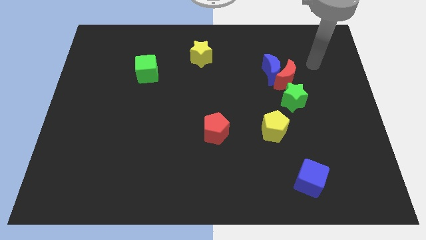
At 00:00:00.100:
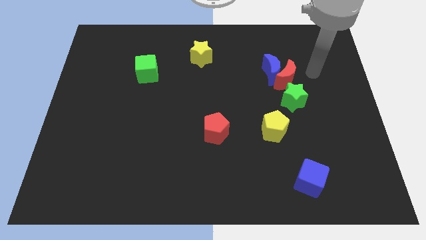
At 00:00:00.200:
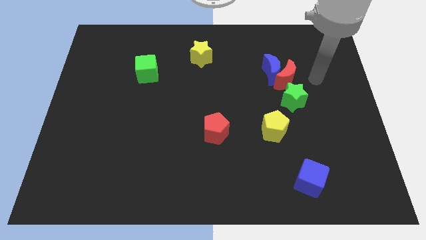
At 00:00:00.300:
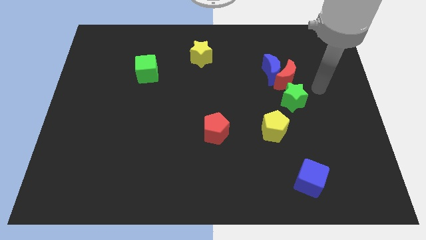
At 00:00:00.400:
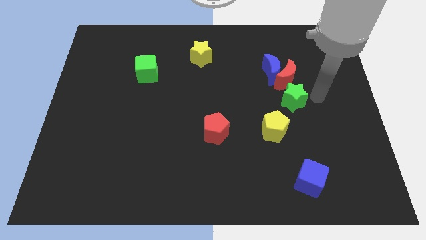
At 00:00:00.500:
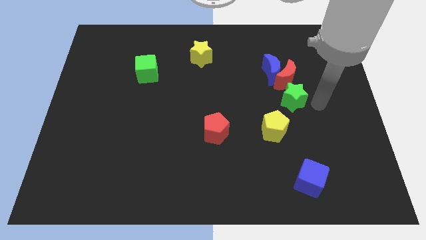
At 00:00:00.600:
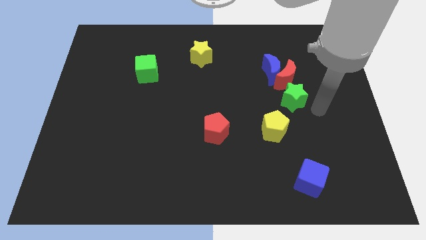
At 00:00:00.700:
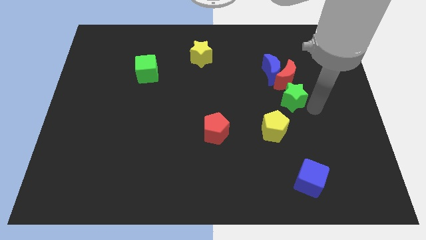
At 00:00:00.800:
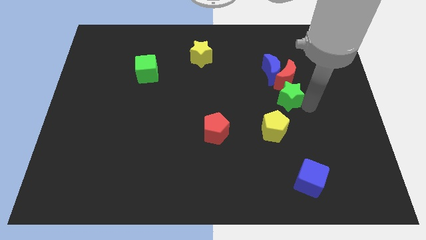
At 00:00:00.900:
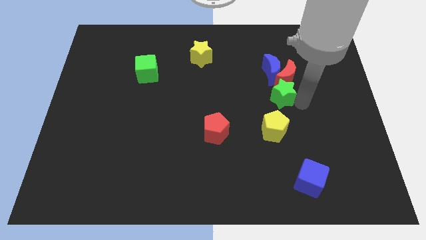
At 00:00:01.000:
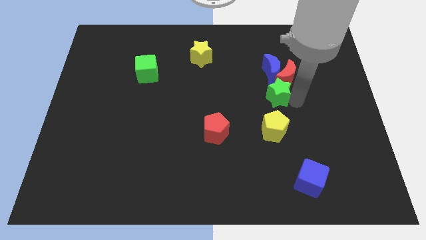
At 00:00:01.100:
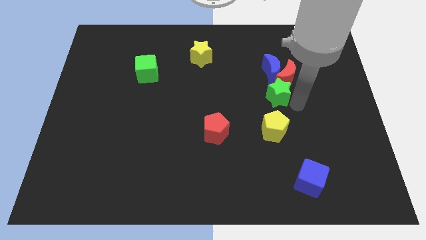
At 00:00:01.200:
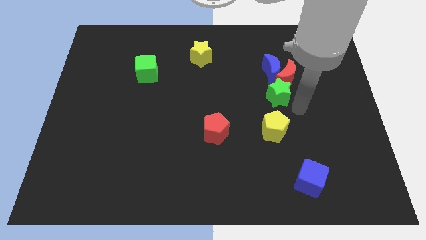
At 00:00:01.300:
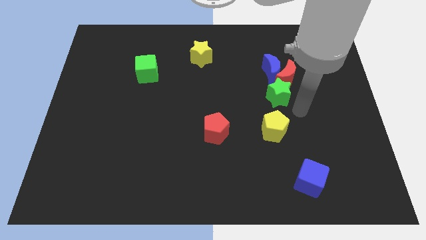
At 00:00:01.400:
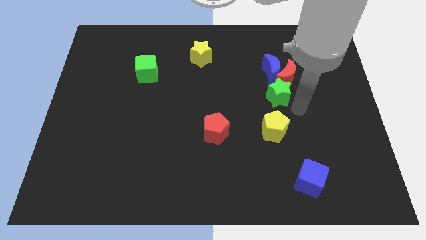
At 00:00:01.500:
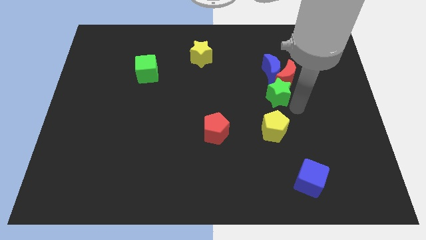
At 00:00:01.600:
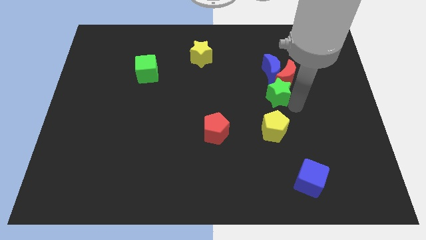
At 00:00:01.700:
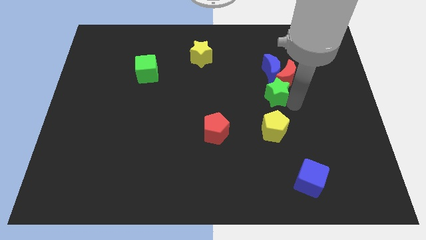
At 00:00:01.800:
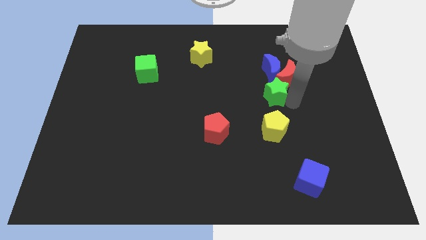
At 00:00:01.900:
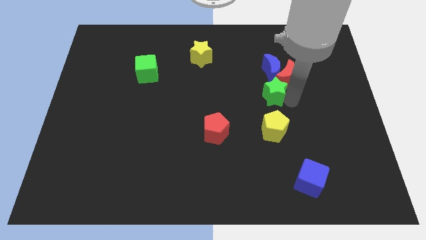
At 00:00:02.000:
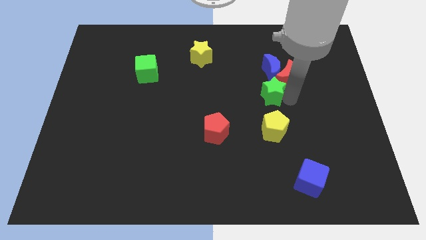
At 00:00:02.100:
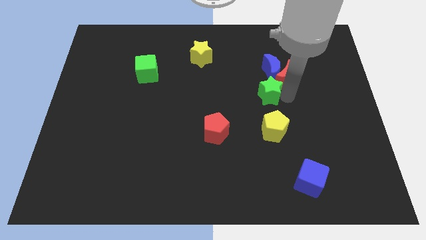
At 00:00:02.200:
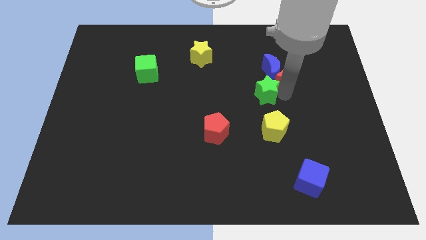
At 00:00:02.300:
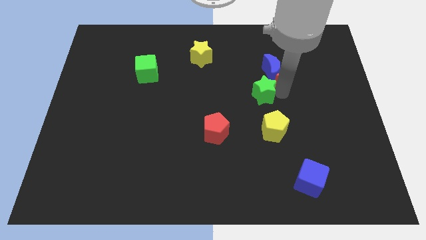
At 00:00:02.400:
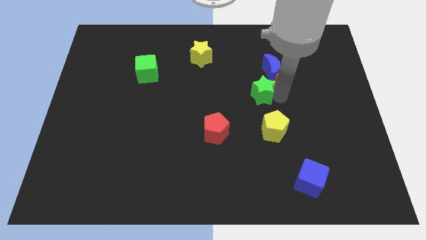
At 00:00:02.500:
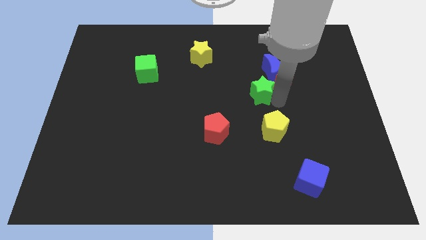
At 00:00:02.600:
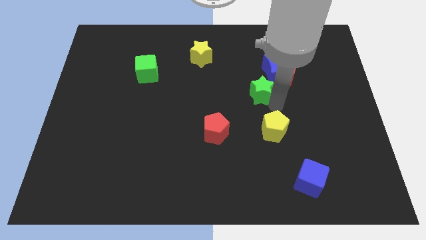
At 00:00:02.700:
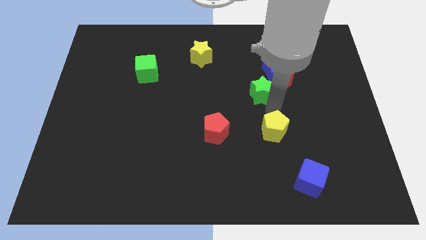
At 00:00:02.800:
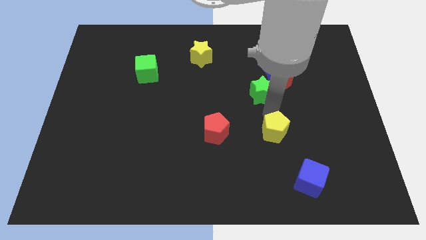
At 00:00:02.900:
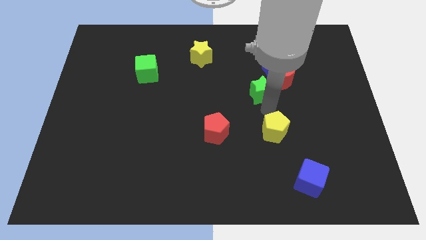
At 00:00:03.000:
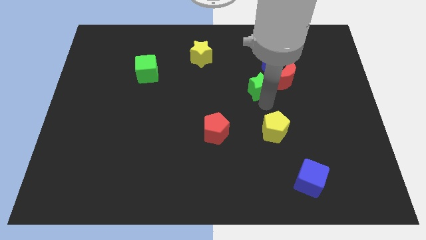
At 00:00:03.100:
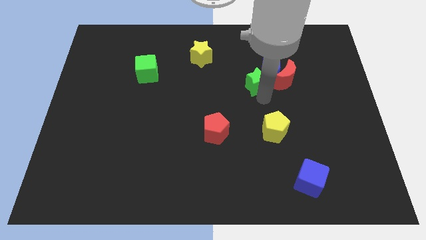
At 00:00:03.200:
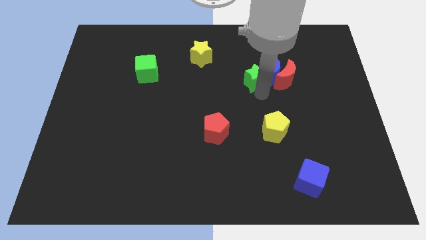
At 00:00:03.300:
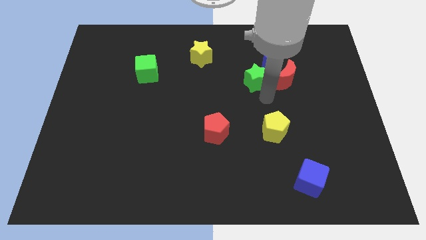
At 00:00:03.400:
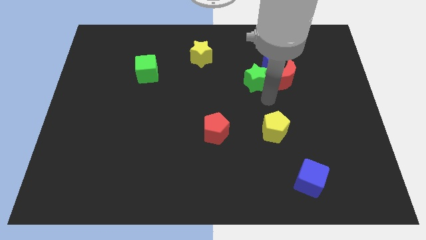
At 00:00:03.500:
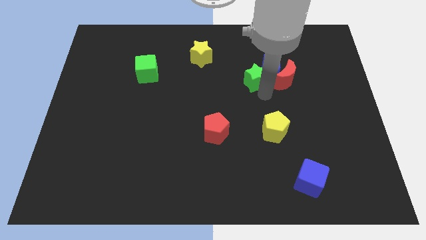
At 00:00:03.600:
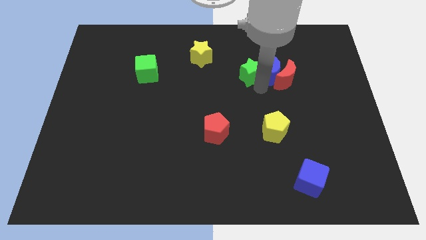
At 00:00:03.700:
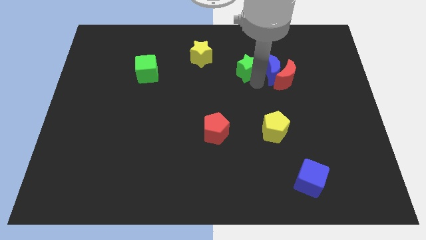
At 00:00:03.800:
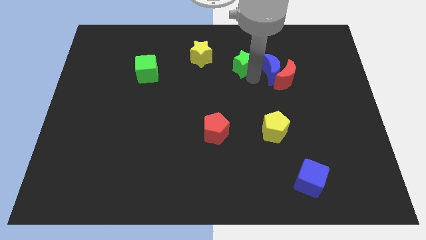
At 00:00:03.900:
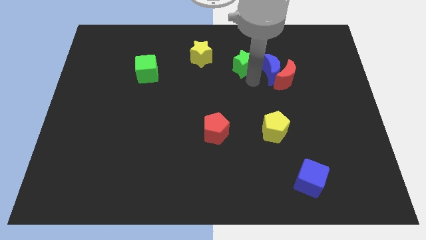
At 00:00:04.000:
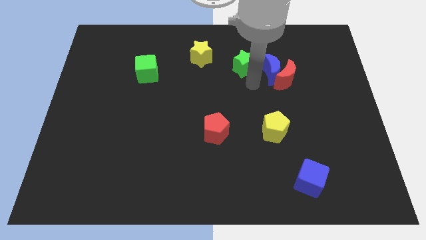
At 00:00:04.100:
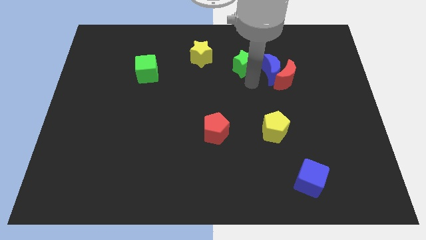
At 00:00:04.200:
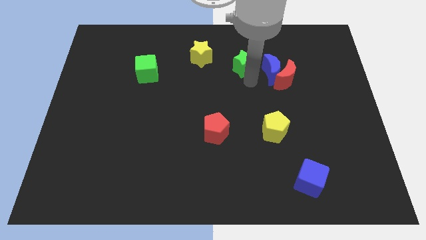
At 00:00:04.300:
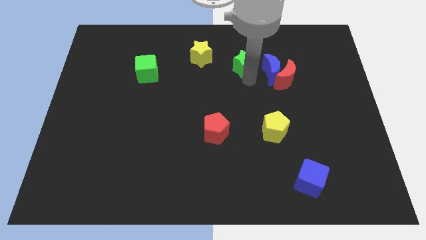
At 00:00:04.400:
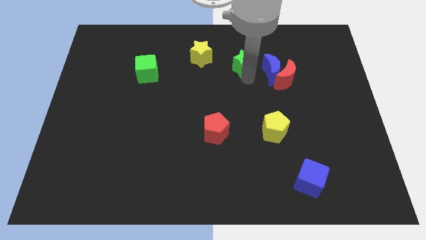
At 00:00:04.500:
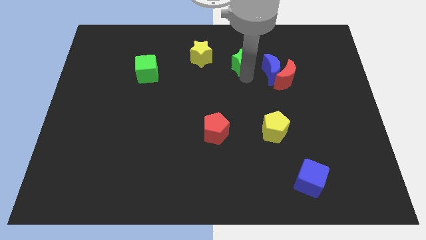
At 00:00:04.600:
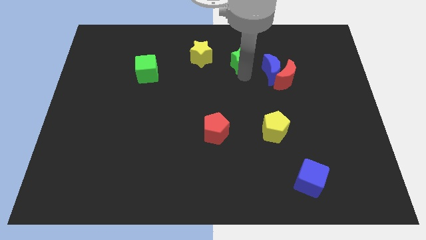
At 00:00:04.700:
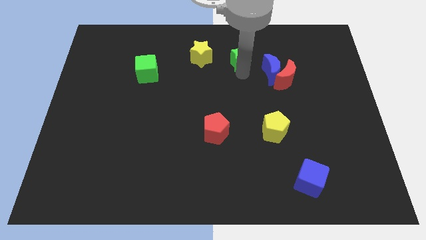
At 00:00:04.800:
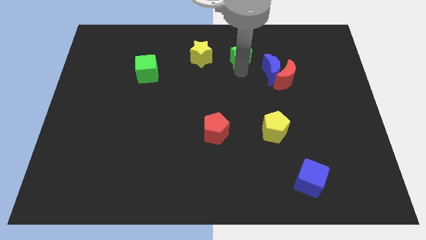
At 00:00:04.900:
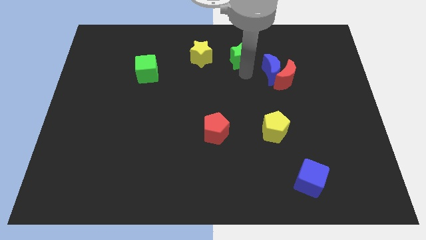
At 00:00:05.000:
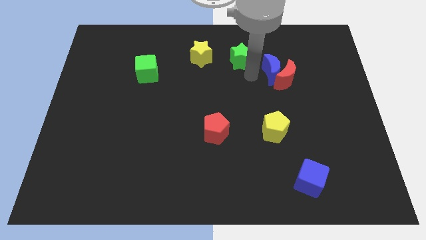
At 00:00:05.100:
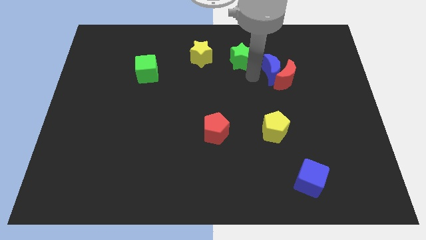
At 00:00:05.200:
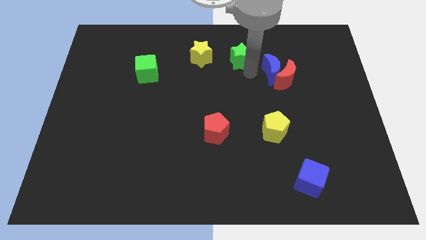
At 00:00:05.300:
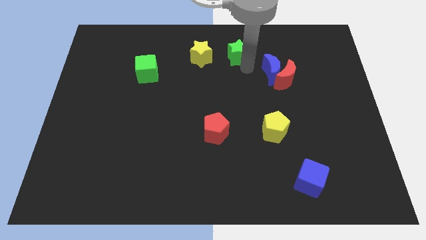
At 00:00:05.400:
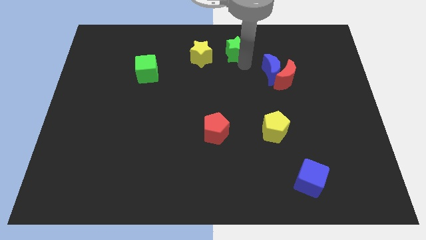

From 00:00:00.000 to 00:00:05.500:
put the green star to the top side
